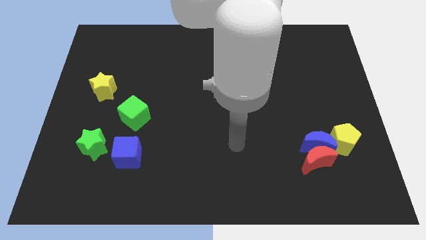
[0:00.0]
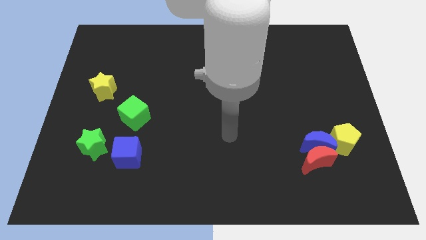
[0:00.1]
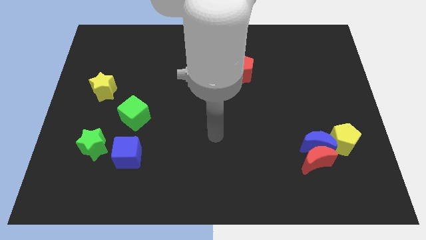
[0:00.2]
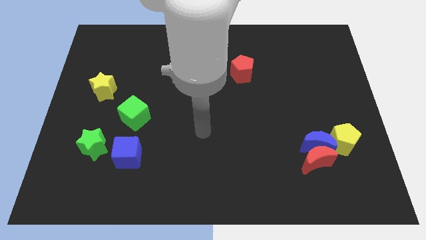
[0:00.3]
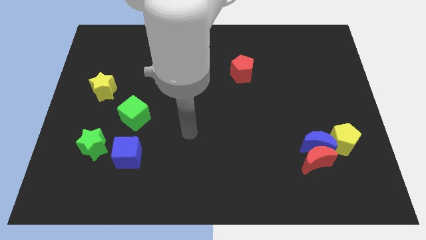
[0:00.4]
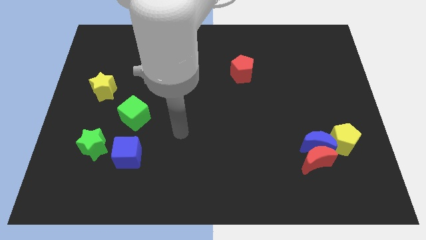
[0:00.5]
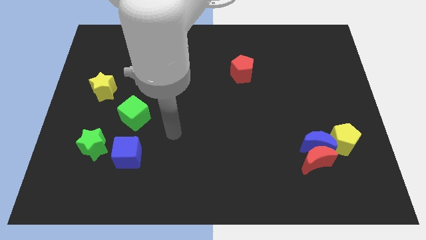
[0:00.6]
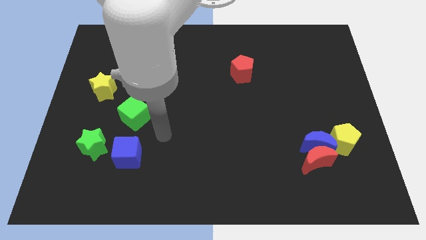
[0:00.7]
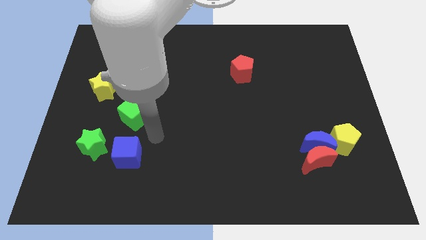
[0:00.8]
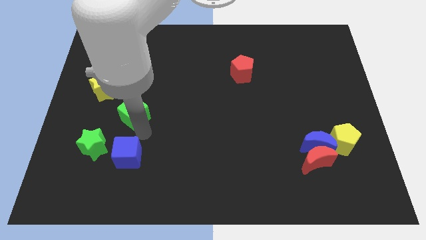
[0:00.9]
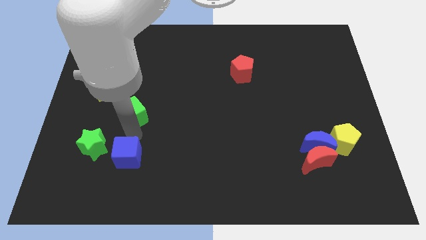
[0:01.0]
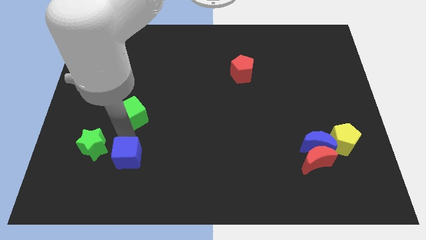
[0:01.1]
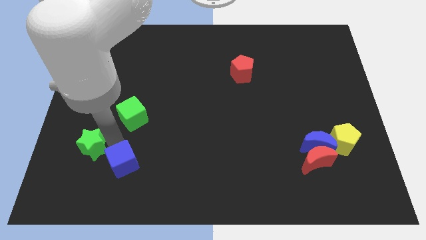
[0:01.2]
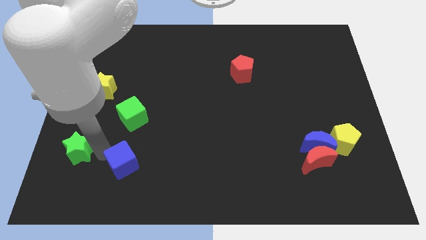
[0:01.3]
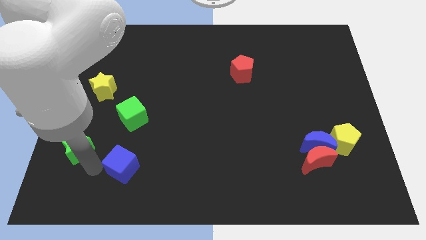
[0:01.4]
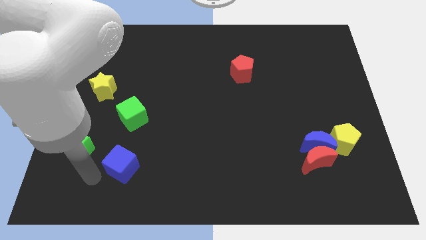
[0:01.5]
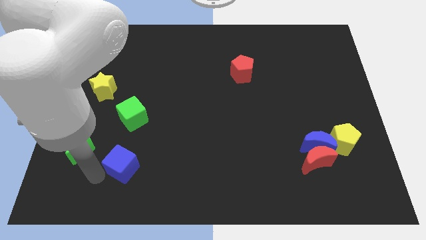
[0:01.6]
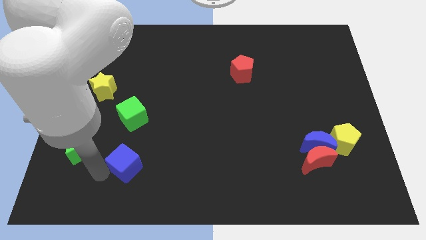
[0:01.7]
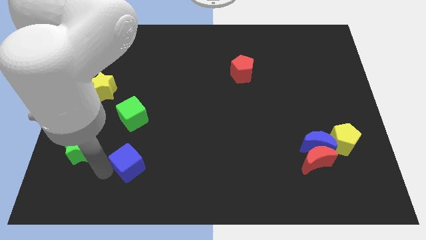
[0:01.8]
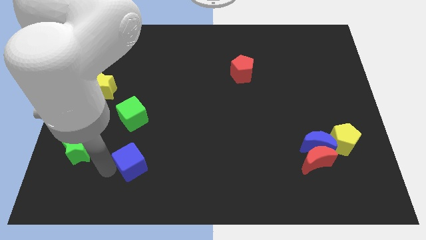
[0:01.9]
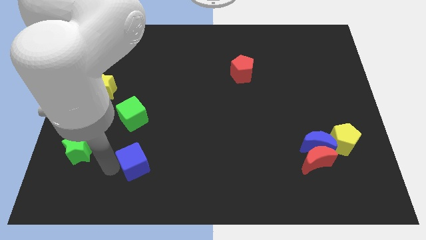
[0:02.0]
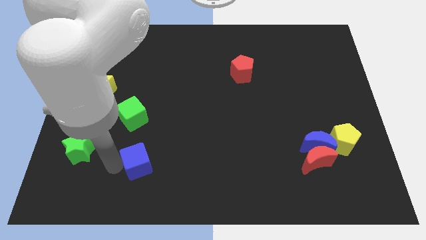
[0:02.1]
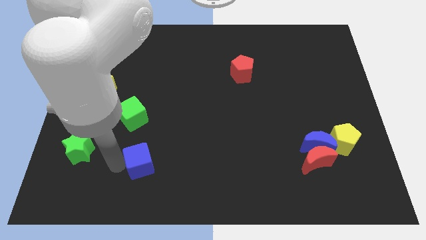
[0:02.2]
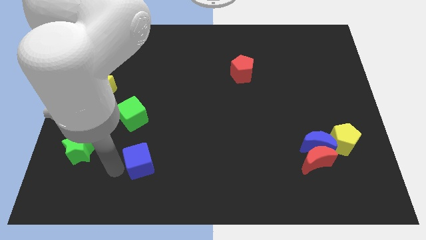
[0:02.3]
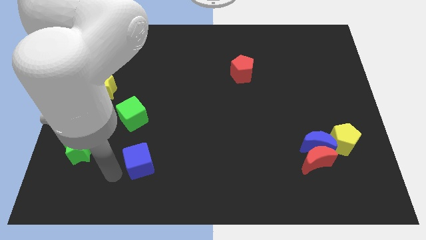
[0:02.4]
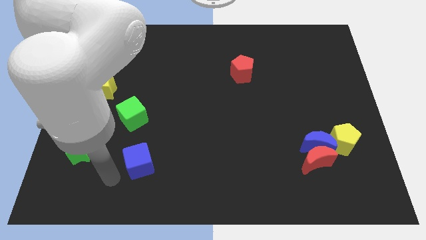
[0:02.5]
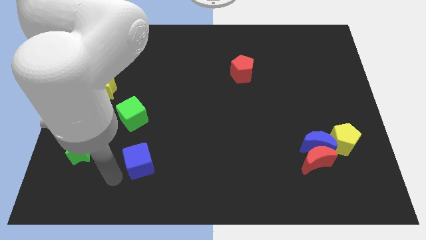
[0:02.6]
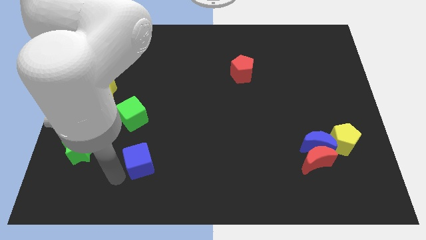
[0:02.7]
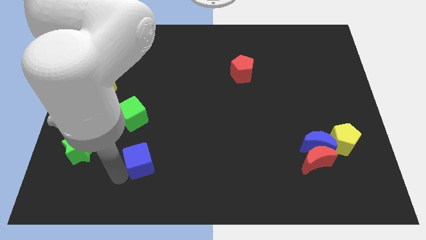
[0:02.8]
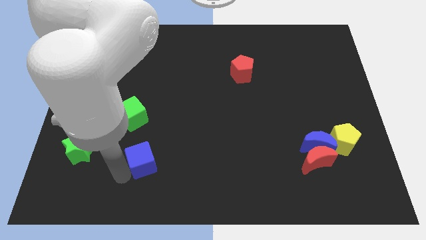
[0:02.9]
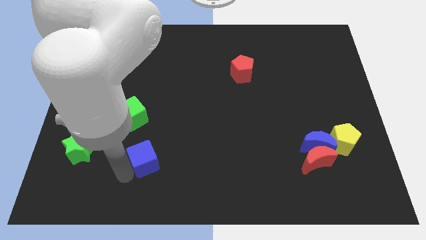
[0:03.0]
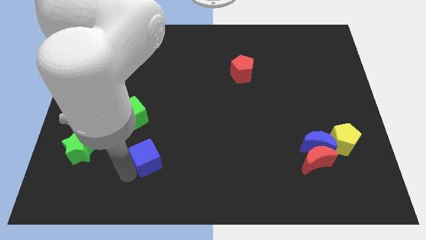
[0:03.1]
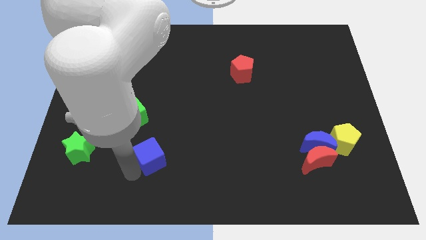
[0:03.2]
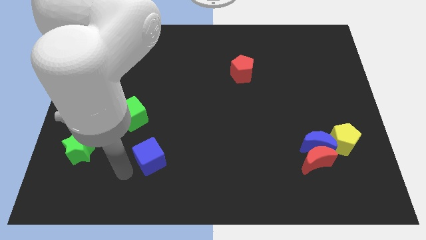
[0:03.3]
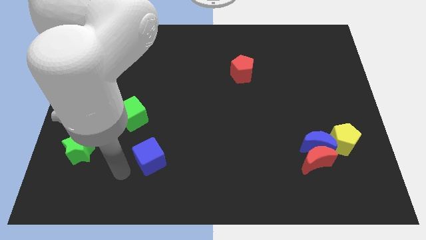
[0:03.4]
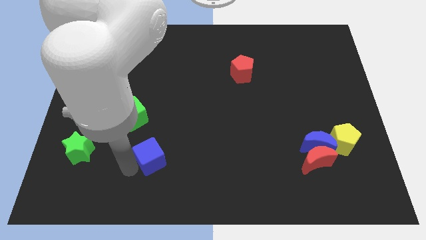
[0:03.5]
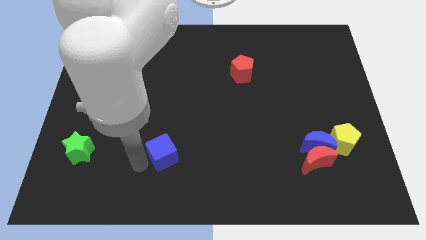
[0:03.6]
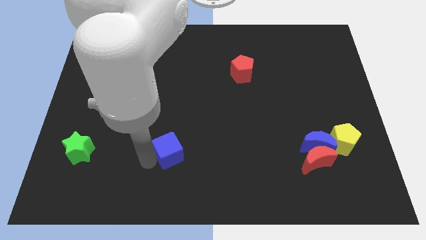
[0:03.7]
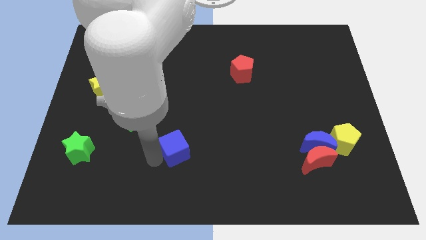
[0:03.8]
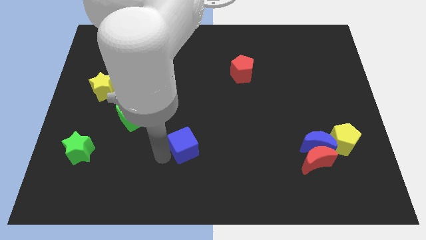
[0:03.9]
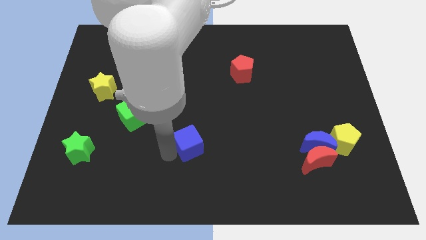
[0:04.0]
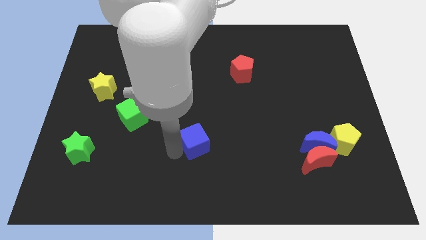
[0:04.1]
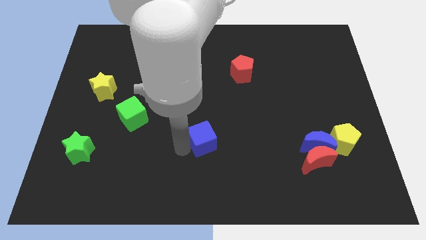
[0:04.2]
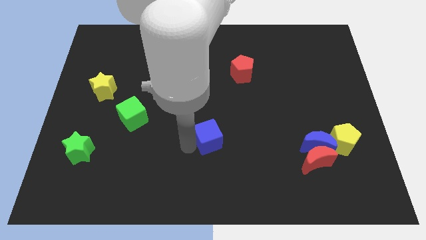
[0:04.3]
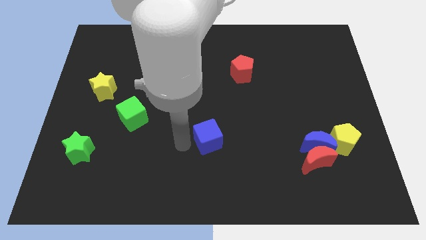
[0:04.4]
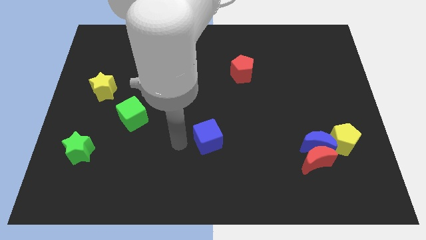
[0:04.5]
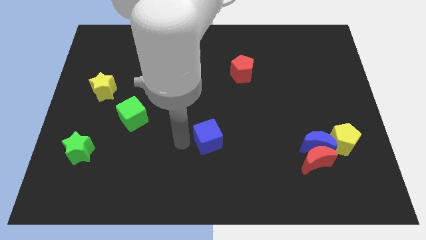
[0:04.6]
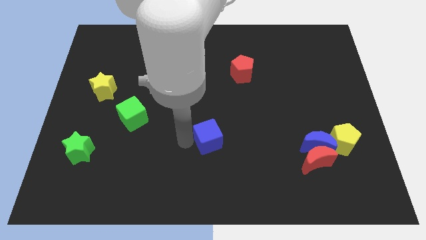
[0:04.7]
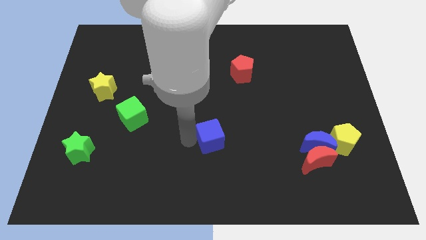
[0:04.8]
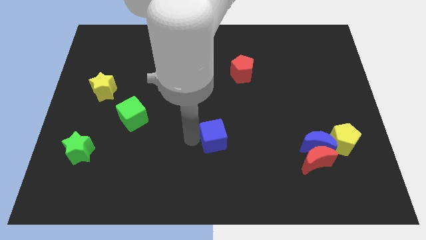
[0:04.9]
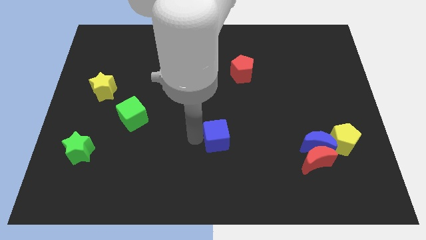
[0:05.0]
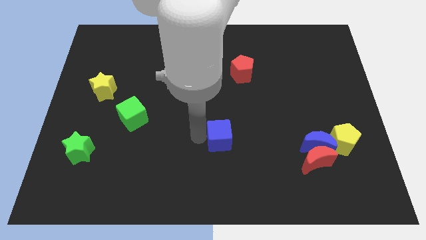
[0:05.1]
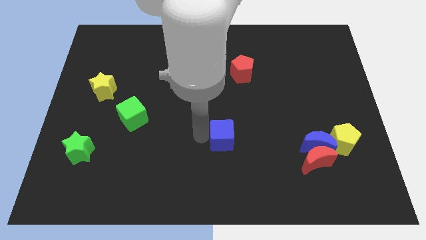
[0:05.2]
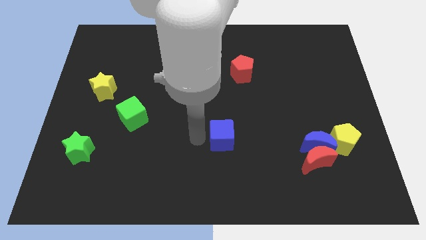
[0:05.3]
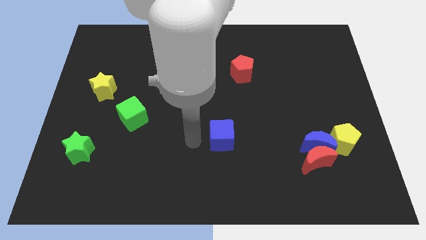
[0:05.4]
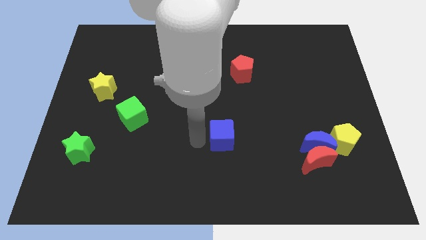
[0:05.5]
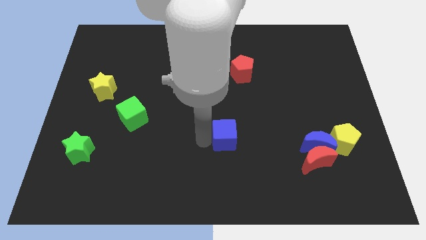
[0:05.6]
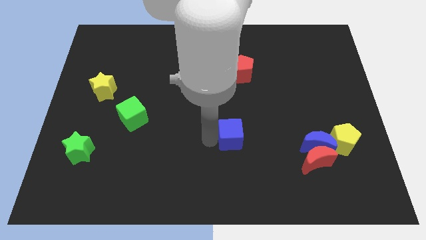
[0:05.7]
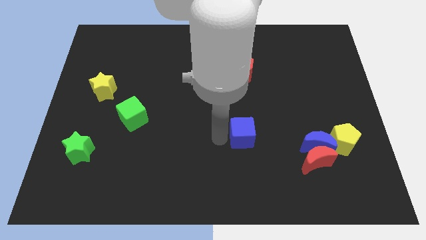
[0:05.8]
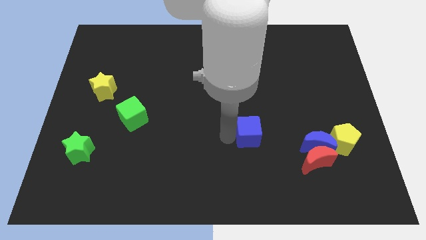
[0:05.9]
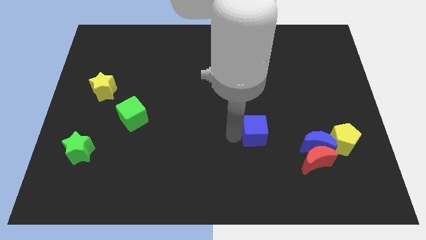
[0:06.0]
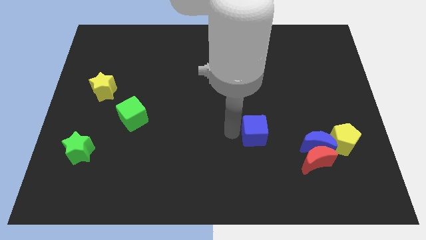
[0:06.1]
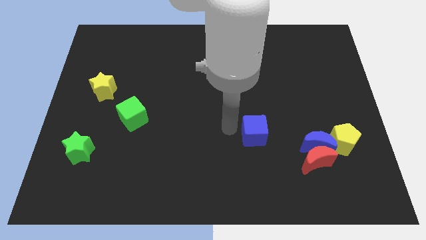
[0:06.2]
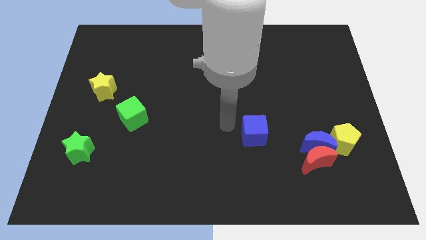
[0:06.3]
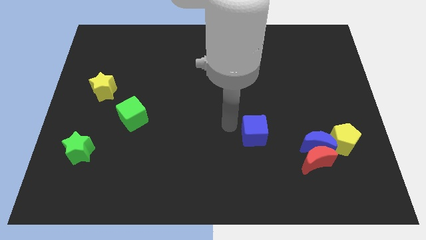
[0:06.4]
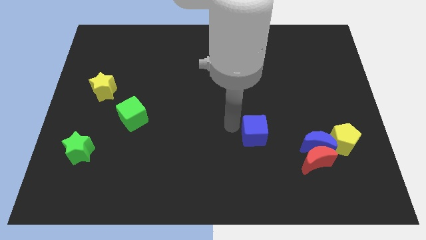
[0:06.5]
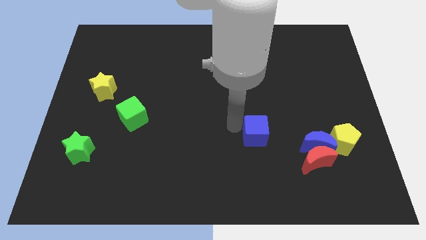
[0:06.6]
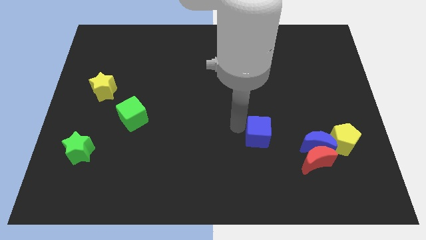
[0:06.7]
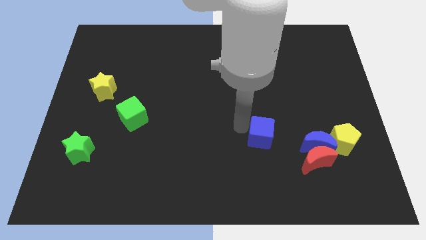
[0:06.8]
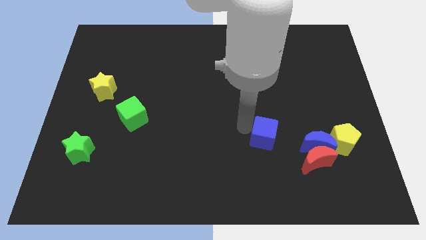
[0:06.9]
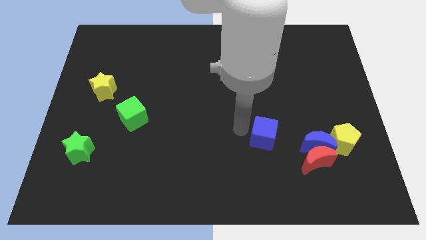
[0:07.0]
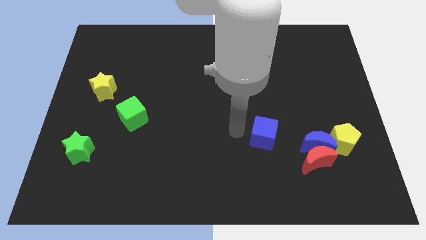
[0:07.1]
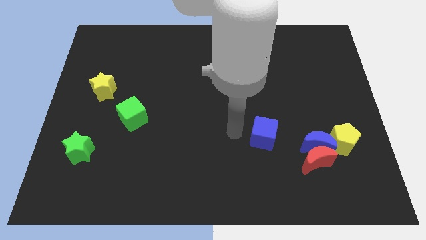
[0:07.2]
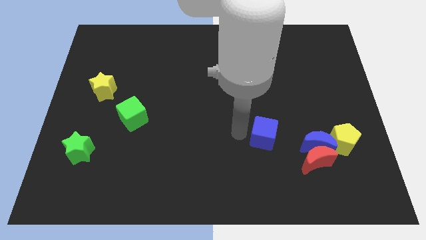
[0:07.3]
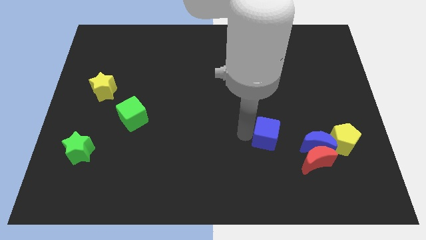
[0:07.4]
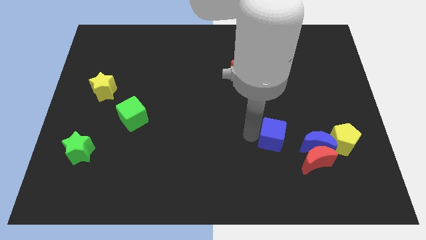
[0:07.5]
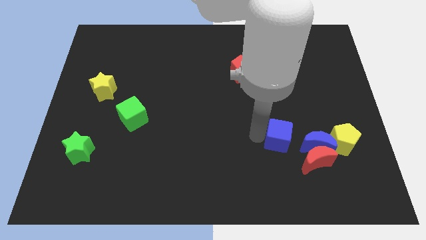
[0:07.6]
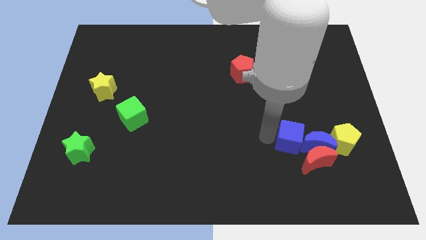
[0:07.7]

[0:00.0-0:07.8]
slide the blue cube towards the blue moon
